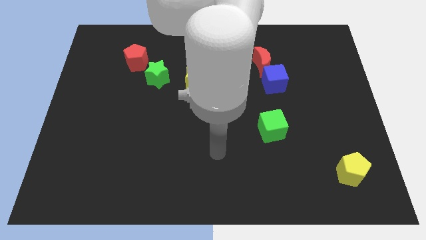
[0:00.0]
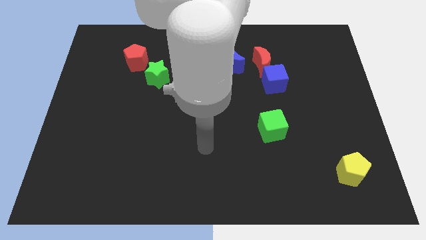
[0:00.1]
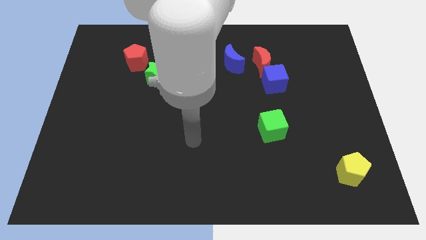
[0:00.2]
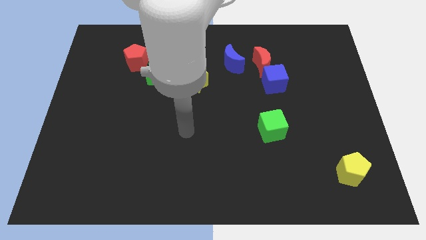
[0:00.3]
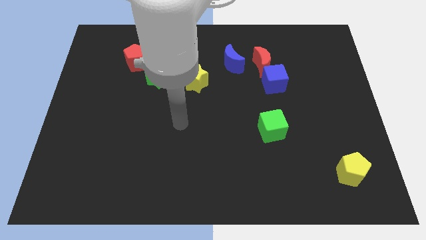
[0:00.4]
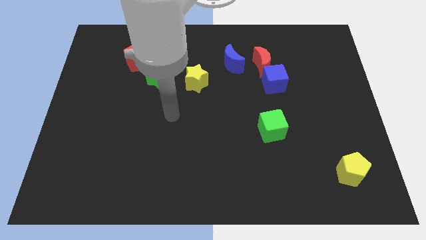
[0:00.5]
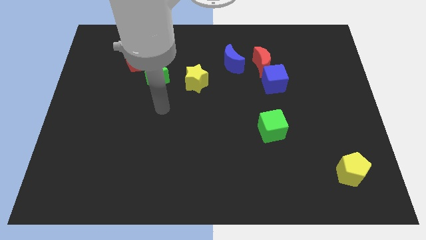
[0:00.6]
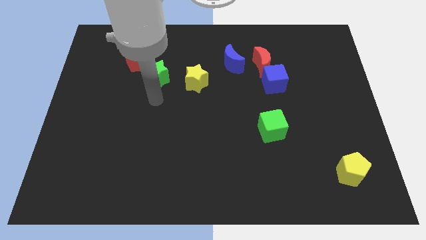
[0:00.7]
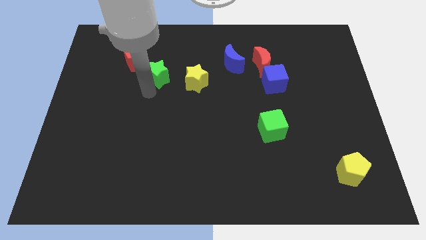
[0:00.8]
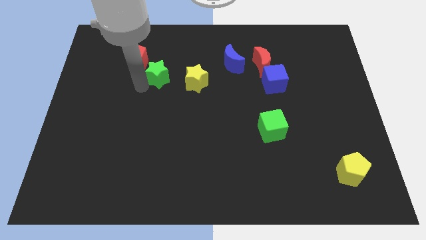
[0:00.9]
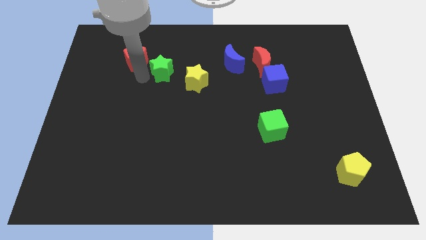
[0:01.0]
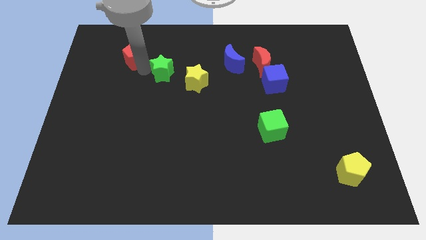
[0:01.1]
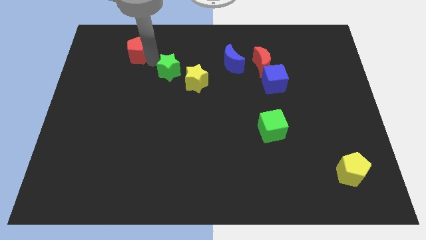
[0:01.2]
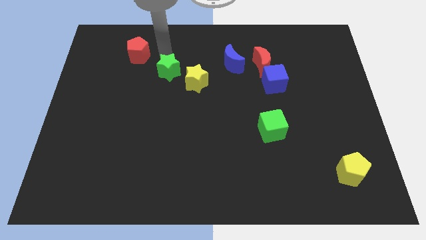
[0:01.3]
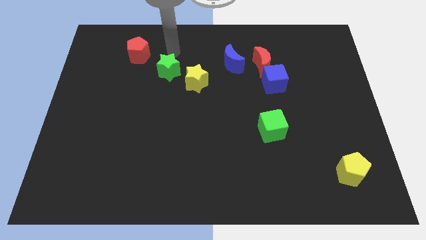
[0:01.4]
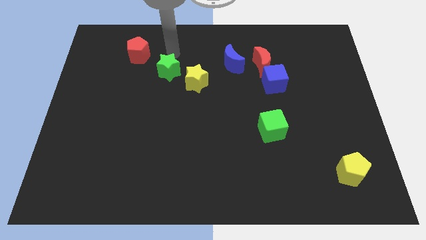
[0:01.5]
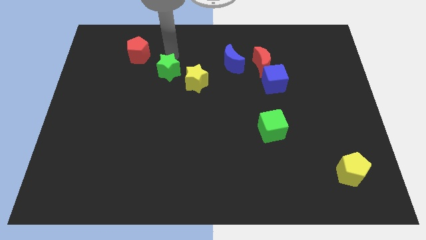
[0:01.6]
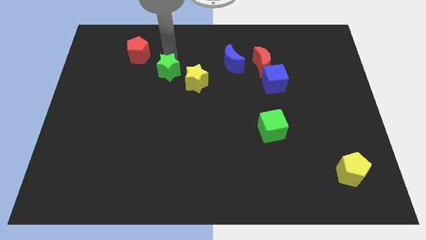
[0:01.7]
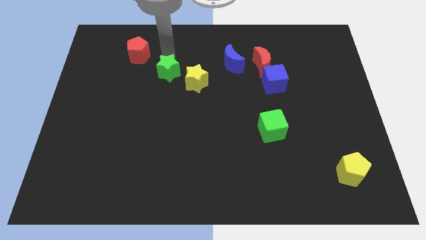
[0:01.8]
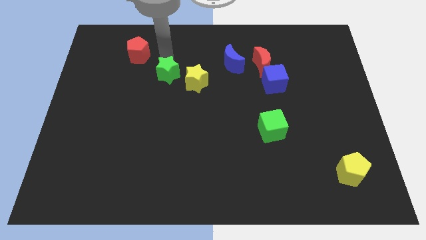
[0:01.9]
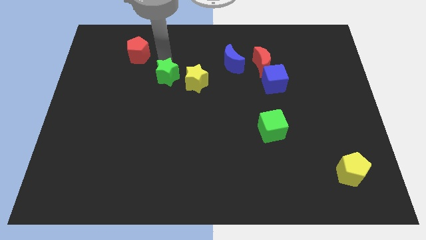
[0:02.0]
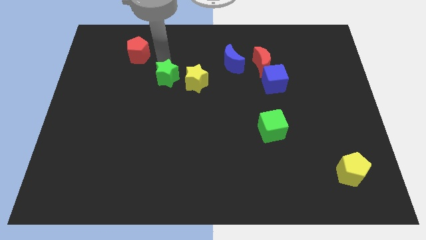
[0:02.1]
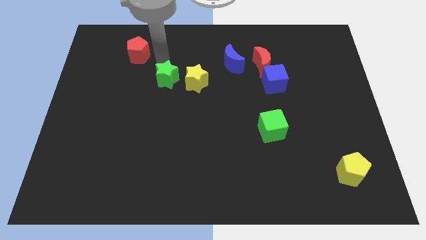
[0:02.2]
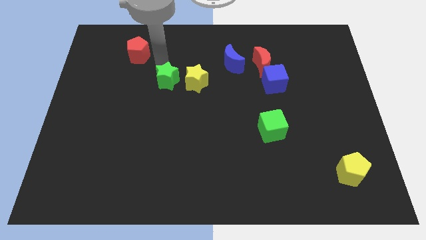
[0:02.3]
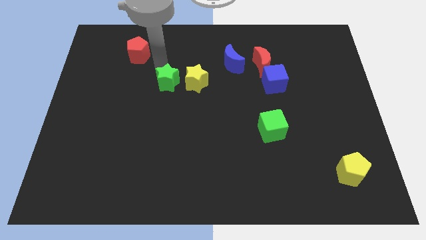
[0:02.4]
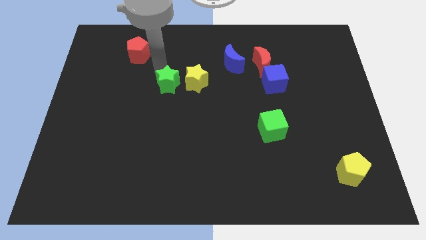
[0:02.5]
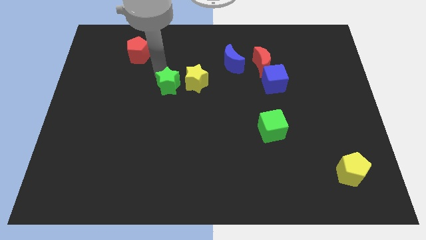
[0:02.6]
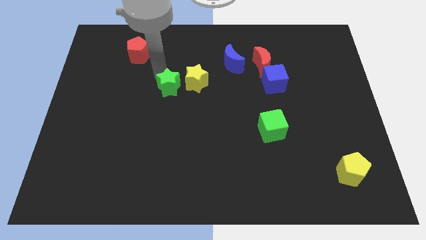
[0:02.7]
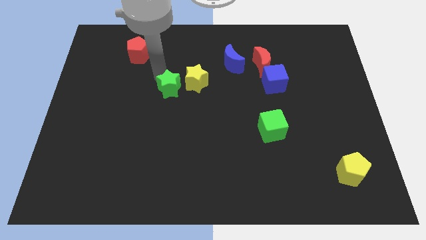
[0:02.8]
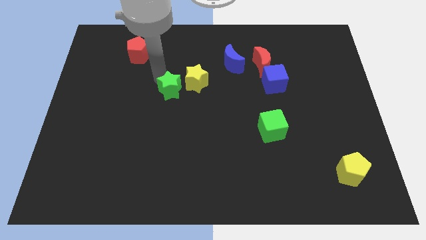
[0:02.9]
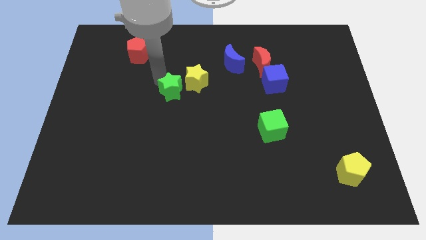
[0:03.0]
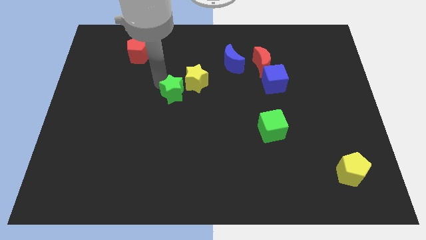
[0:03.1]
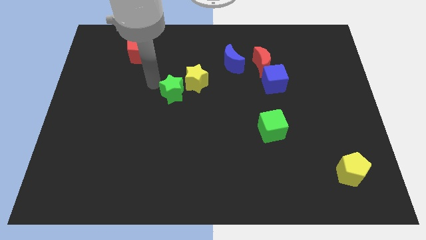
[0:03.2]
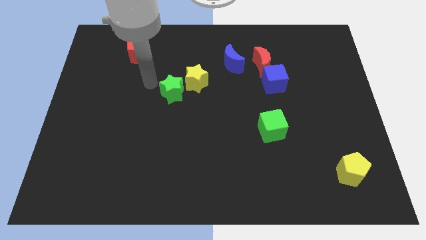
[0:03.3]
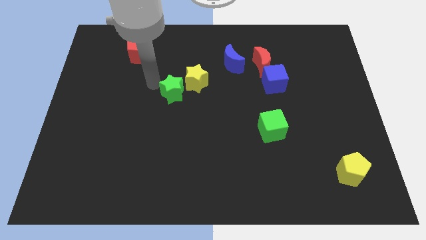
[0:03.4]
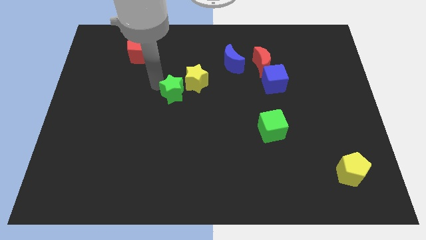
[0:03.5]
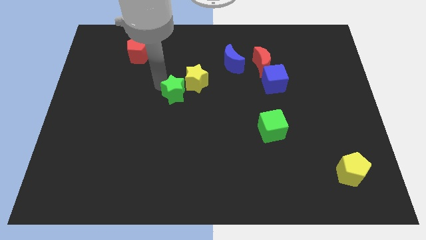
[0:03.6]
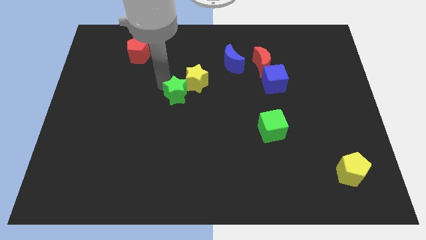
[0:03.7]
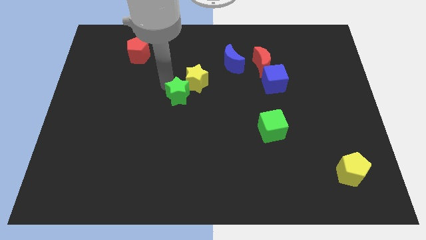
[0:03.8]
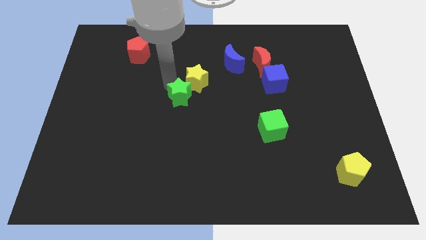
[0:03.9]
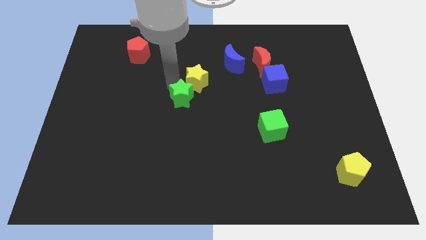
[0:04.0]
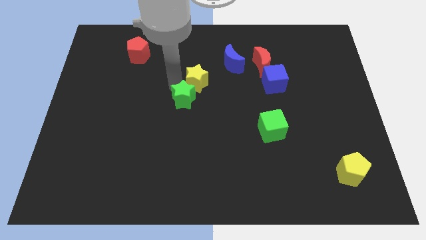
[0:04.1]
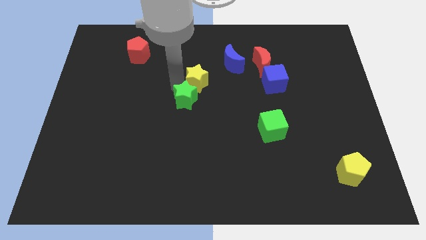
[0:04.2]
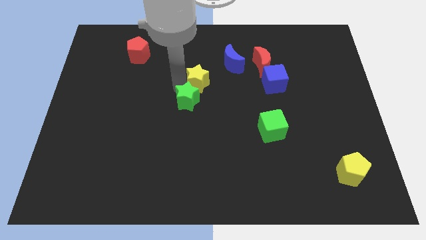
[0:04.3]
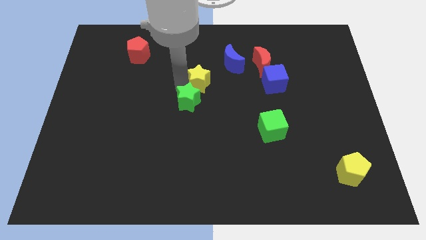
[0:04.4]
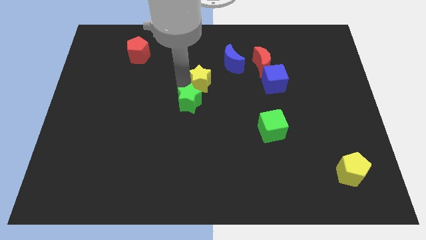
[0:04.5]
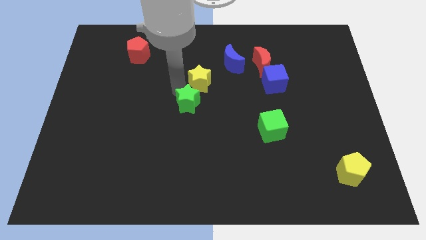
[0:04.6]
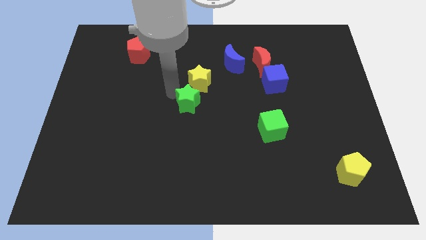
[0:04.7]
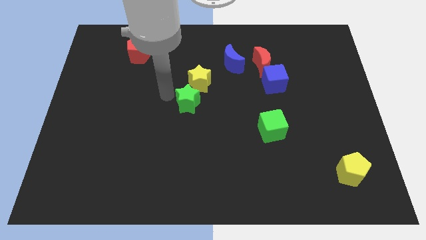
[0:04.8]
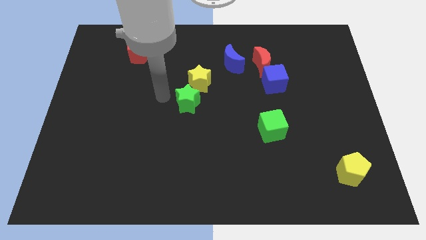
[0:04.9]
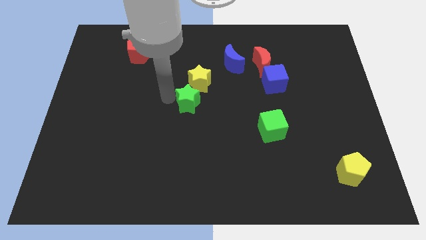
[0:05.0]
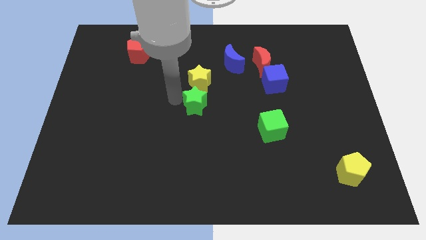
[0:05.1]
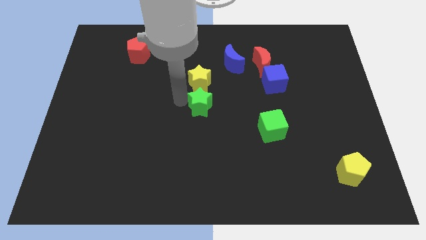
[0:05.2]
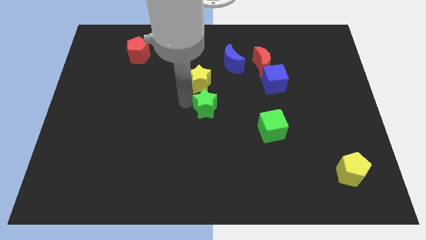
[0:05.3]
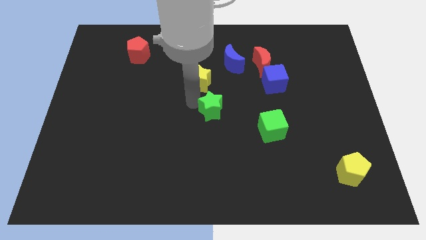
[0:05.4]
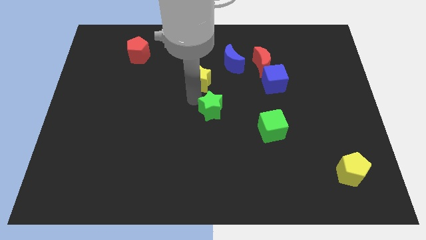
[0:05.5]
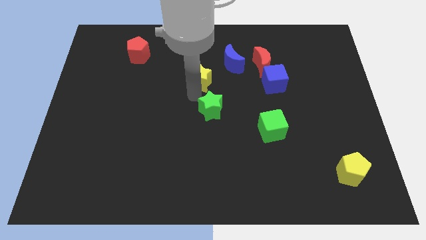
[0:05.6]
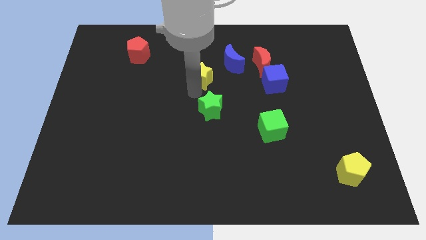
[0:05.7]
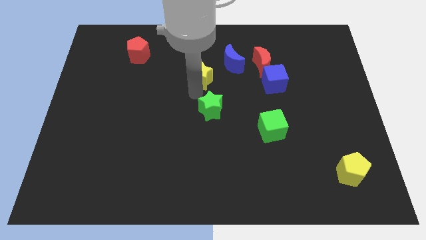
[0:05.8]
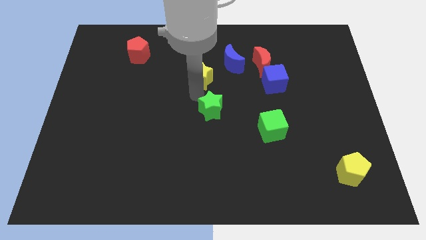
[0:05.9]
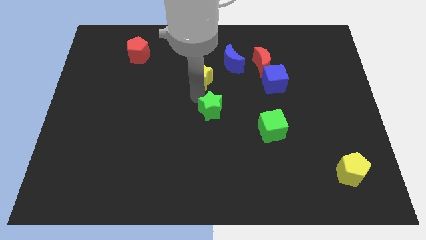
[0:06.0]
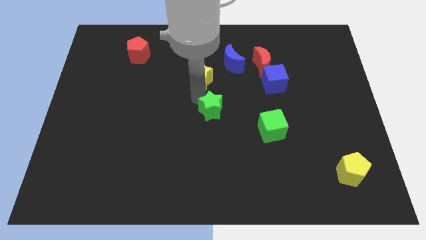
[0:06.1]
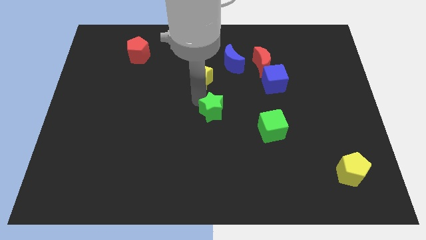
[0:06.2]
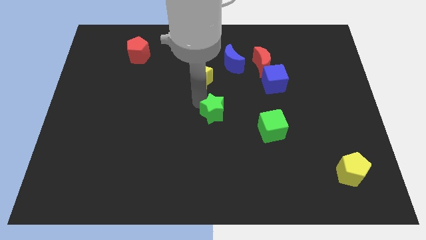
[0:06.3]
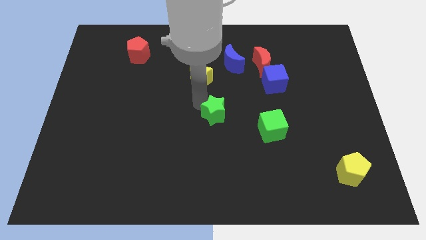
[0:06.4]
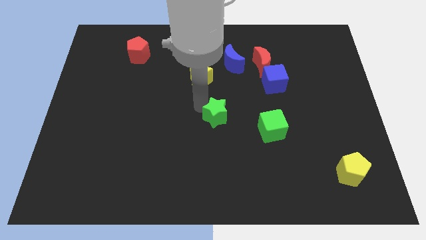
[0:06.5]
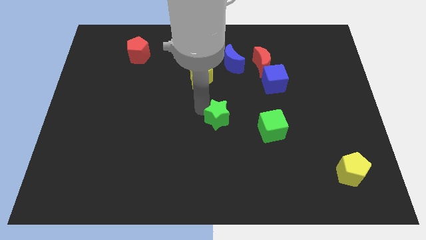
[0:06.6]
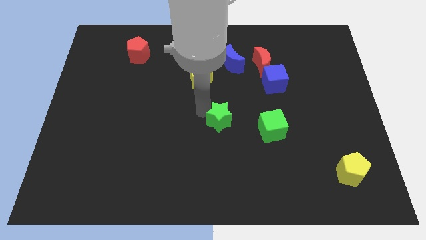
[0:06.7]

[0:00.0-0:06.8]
slide the green star down and right diagonally

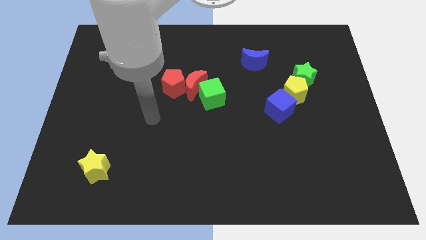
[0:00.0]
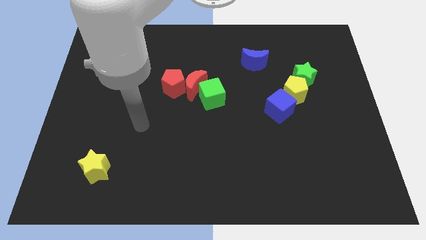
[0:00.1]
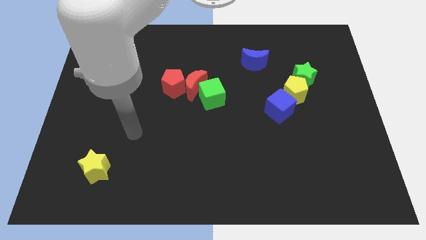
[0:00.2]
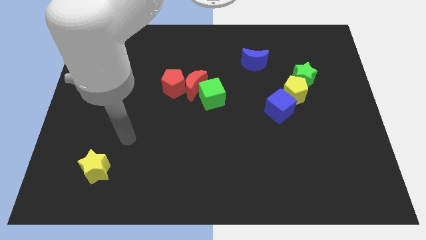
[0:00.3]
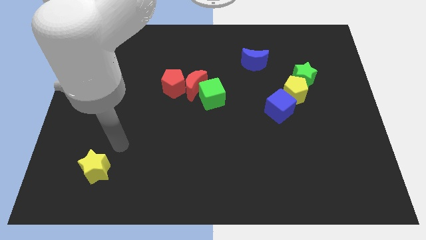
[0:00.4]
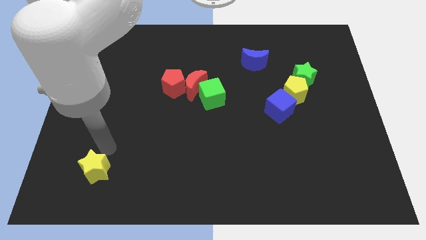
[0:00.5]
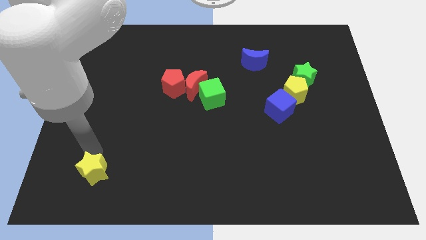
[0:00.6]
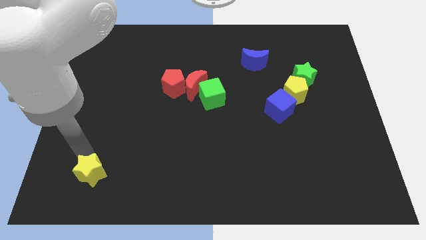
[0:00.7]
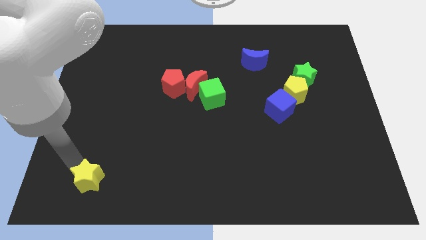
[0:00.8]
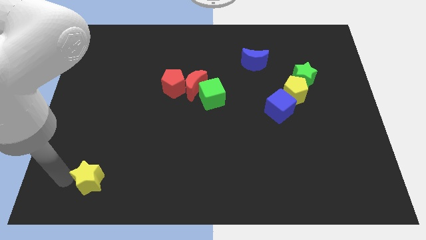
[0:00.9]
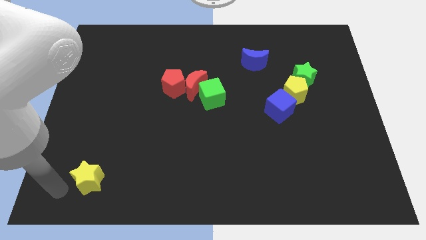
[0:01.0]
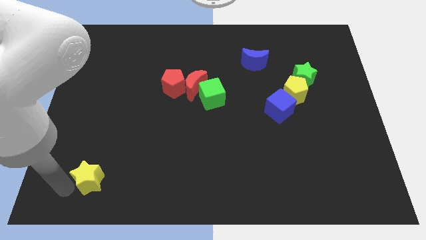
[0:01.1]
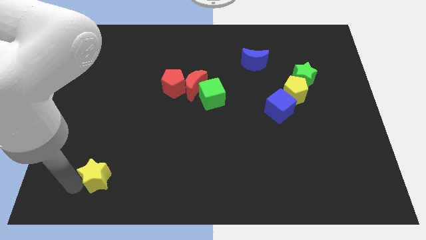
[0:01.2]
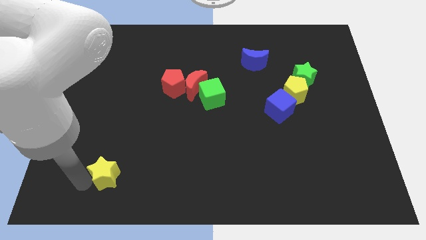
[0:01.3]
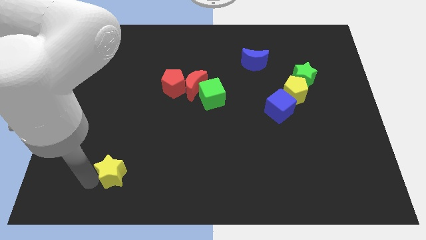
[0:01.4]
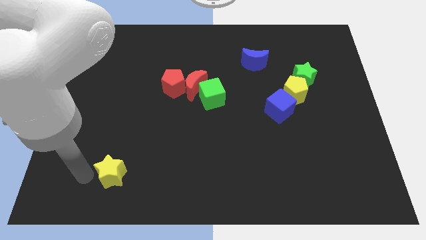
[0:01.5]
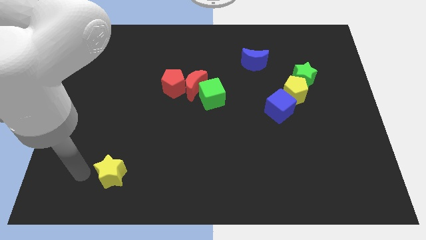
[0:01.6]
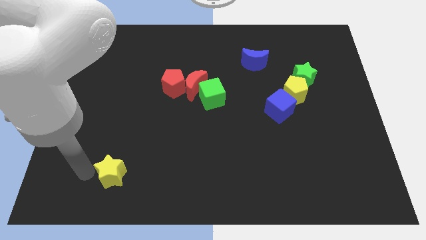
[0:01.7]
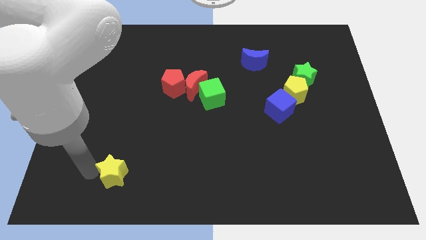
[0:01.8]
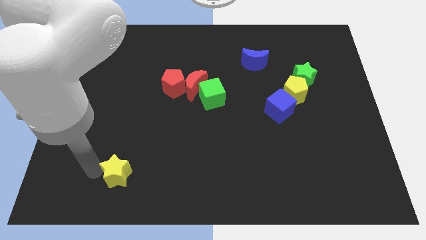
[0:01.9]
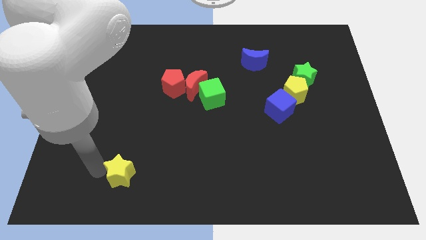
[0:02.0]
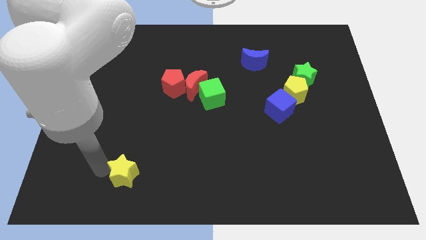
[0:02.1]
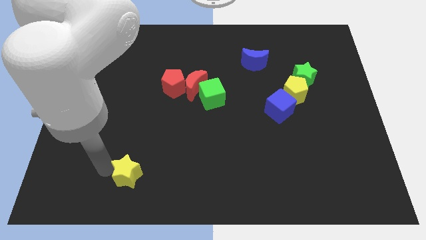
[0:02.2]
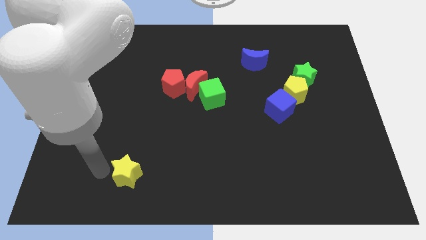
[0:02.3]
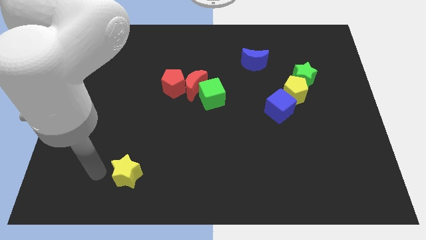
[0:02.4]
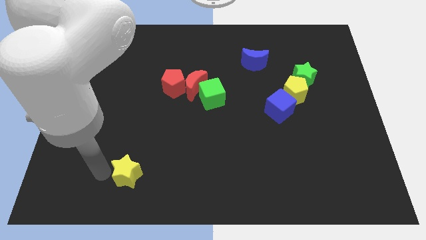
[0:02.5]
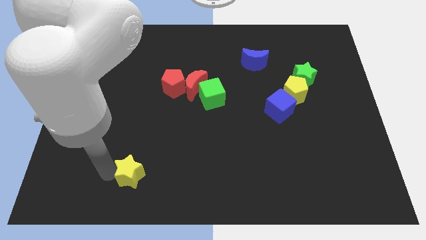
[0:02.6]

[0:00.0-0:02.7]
slightly slide the yellow star to the right
